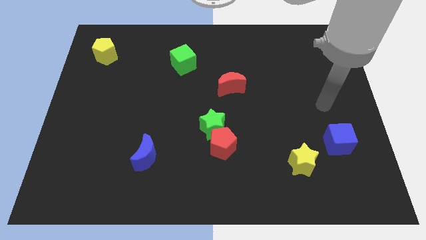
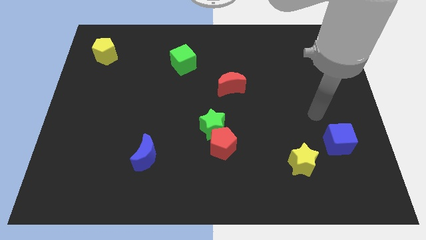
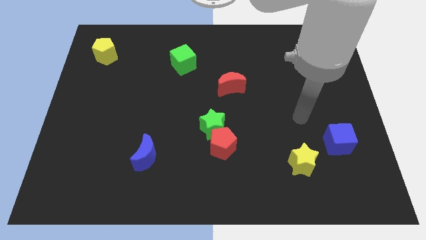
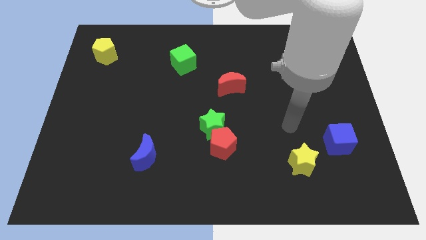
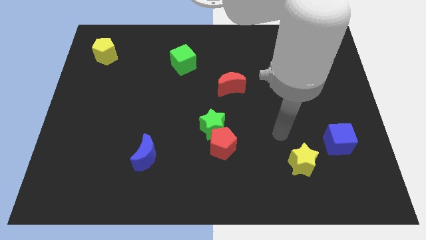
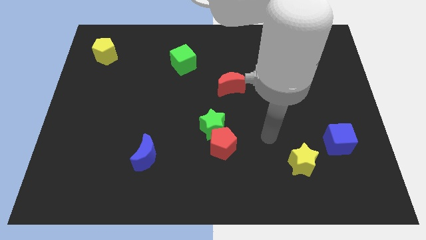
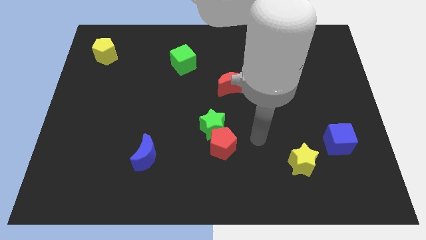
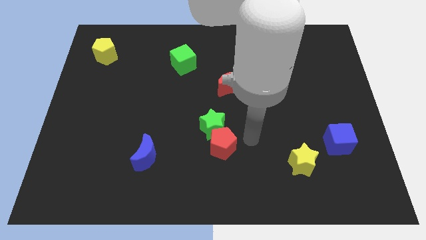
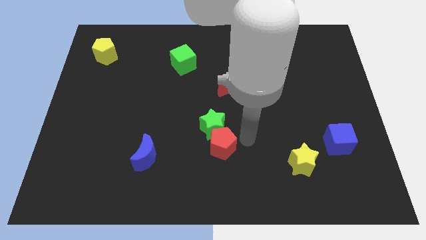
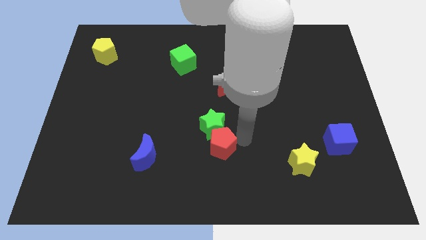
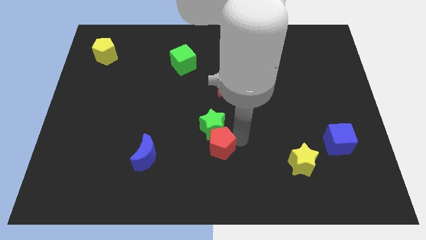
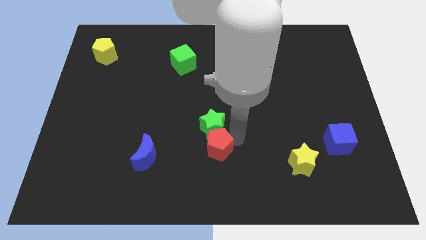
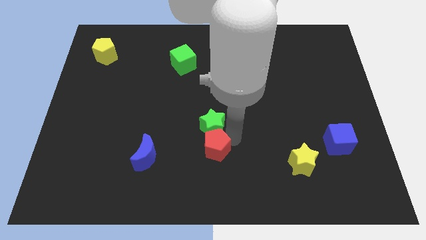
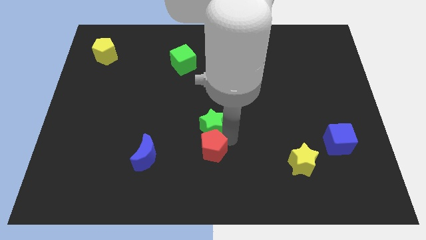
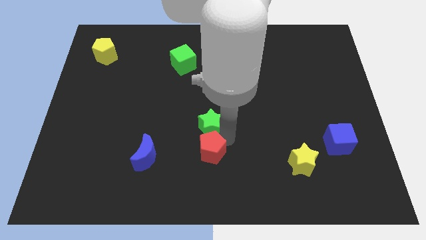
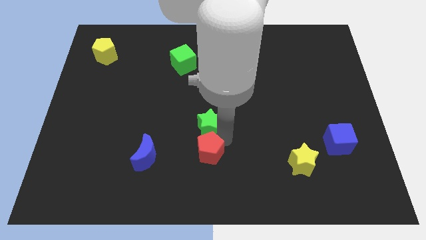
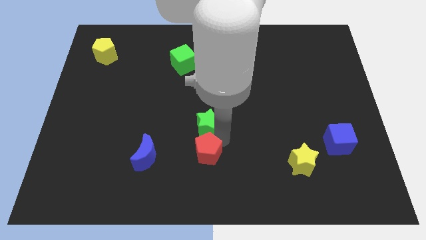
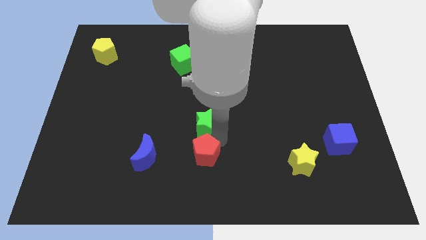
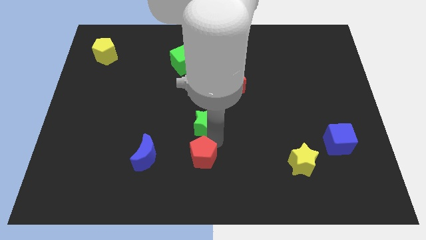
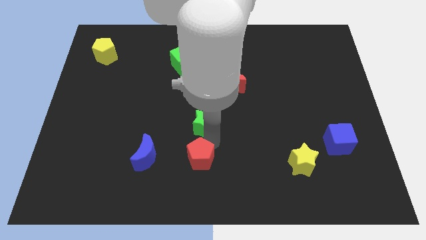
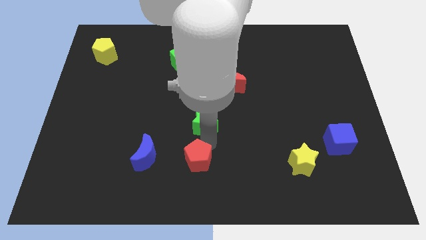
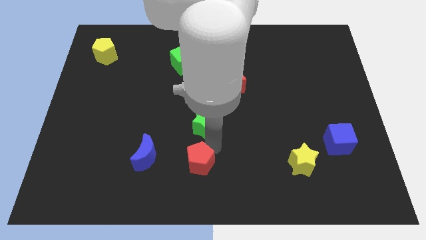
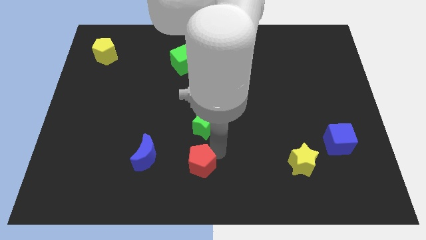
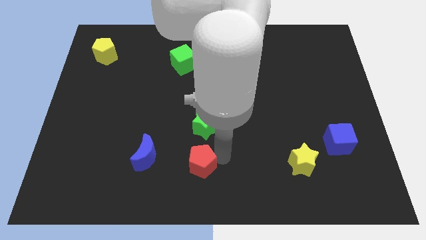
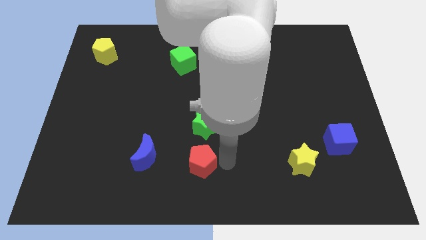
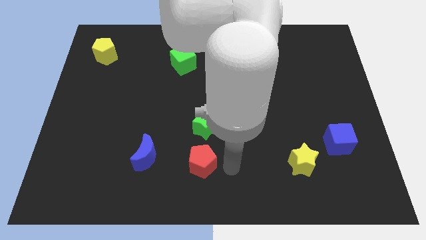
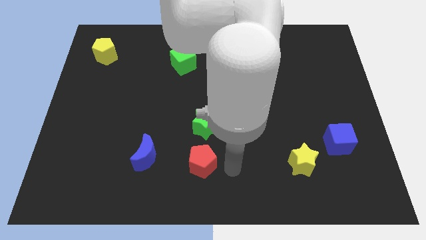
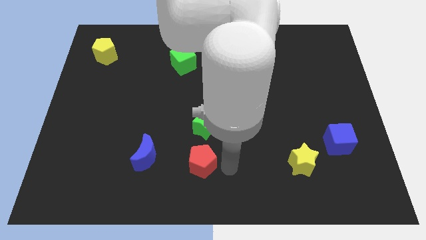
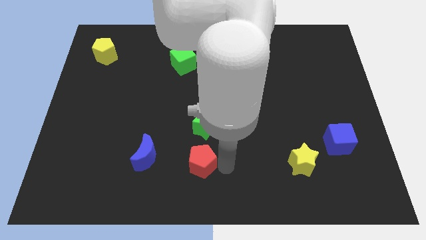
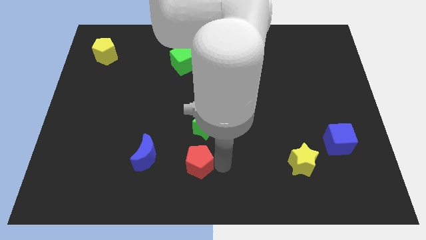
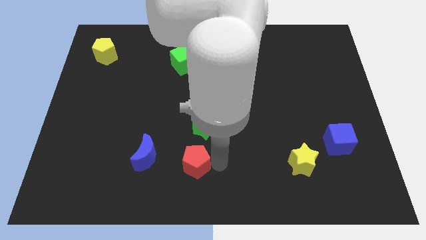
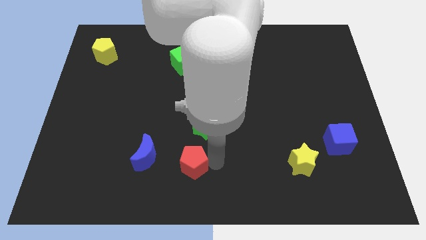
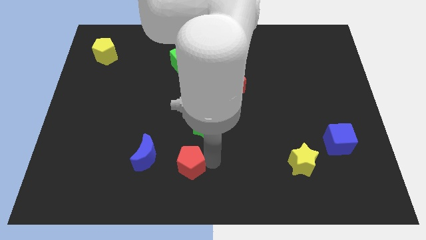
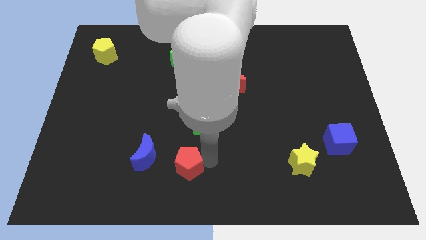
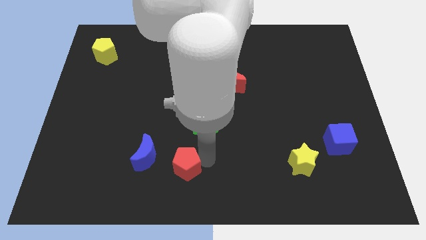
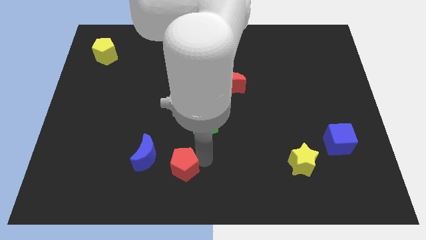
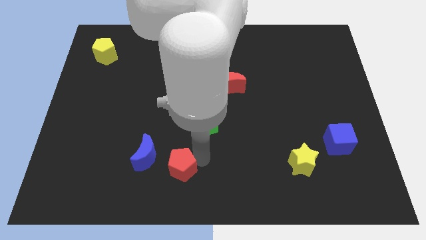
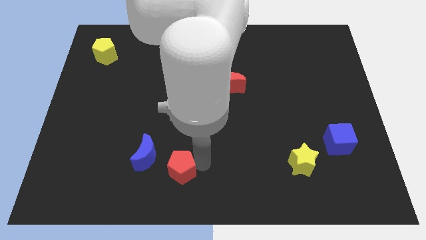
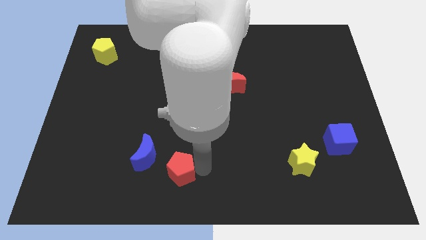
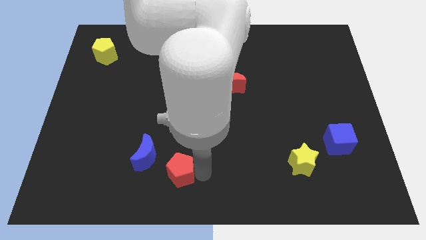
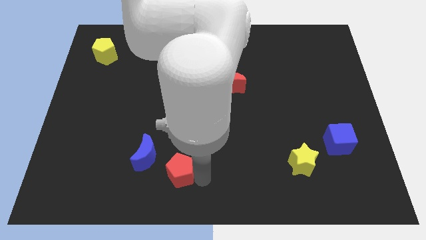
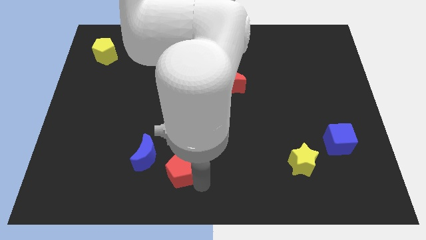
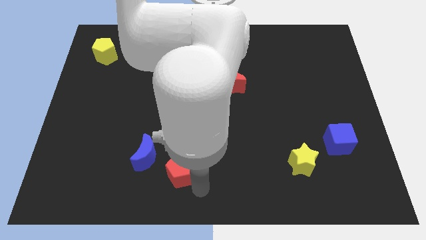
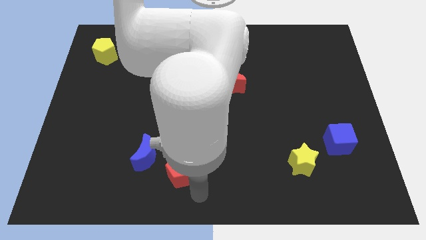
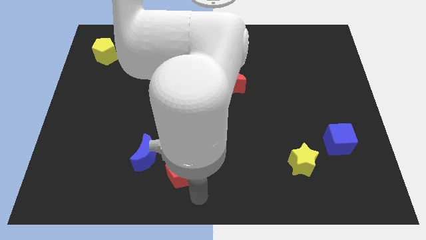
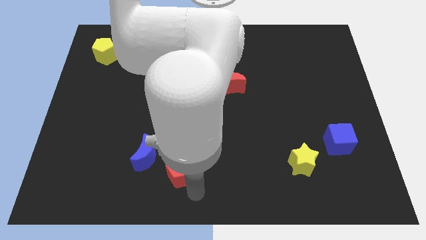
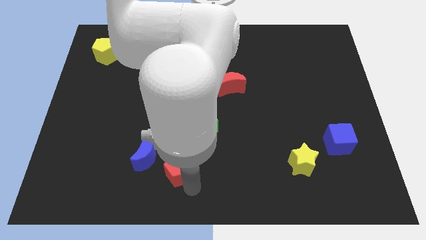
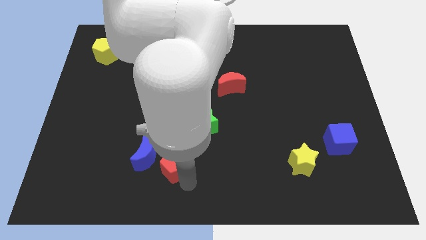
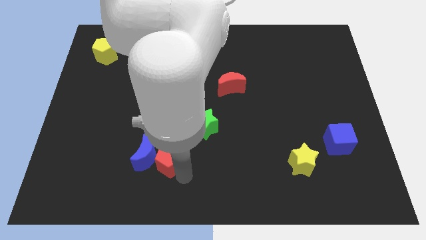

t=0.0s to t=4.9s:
slide the red pentagon next to the blue moon

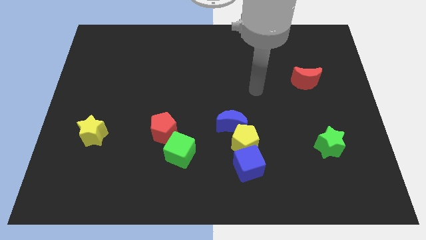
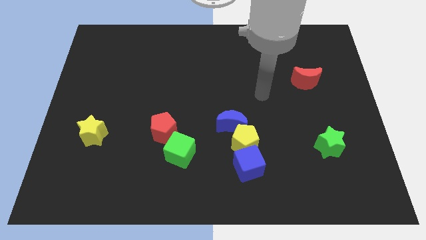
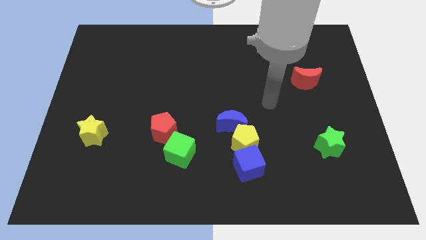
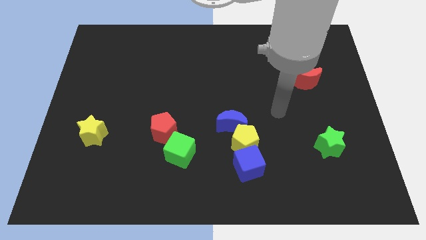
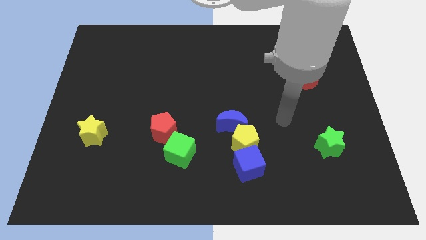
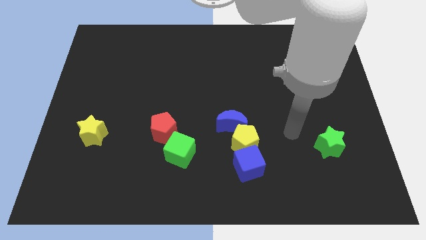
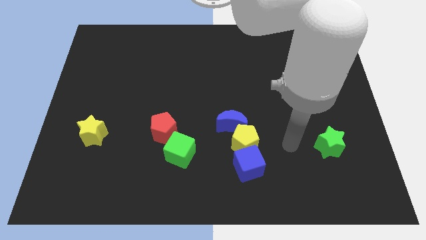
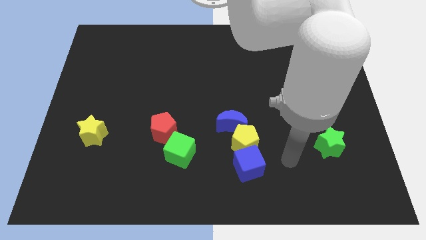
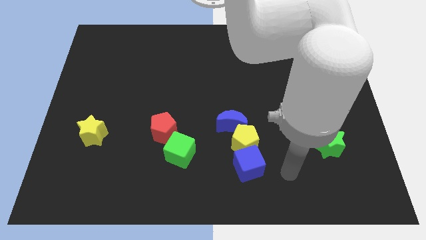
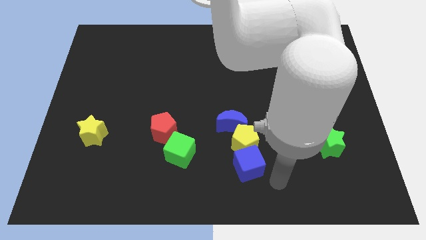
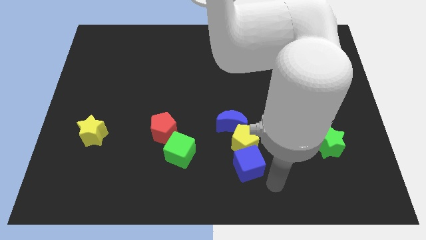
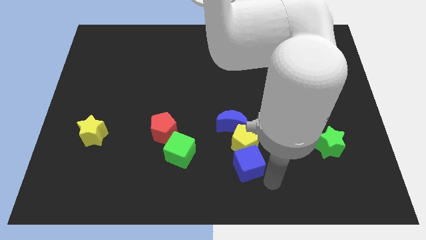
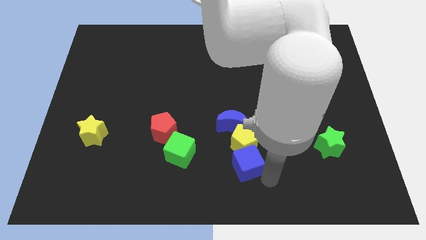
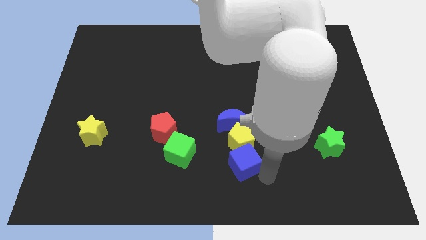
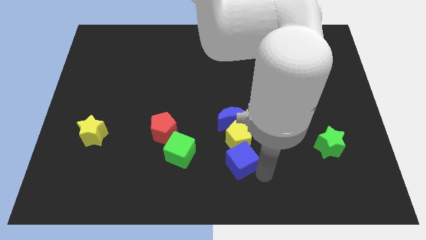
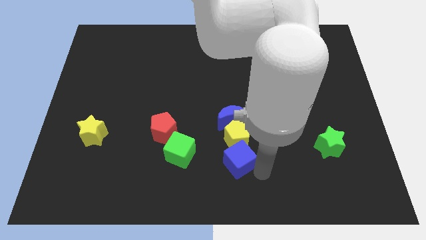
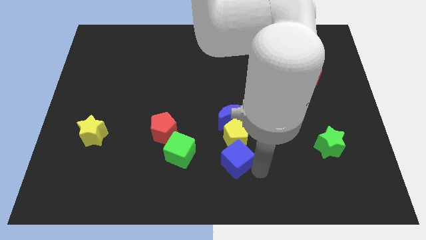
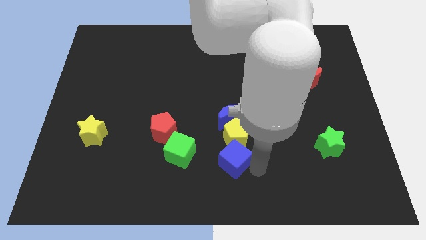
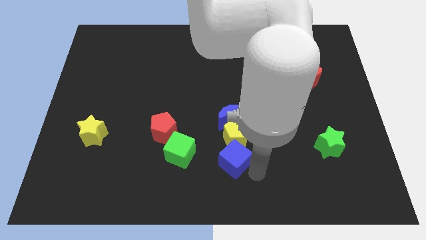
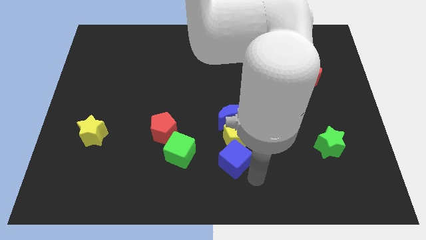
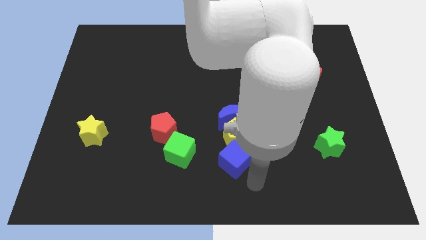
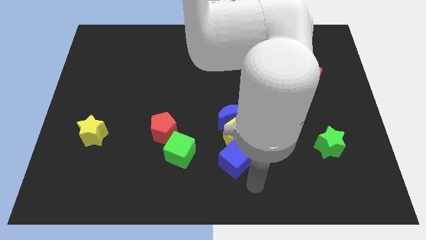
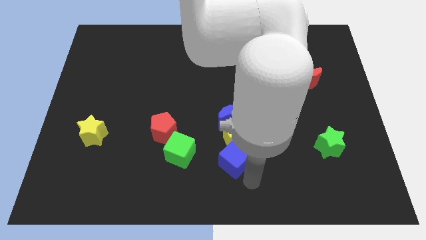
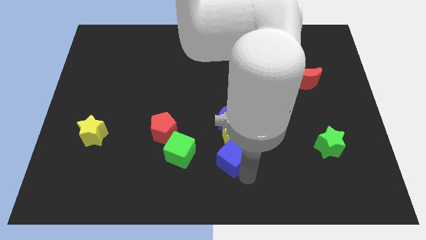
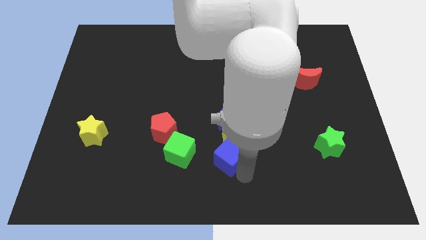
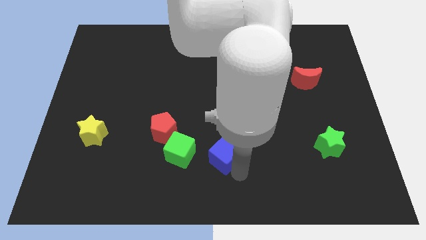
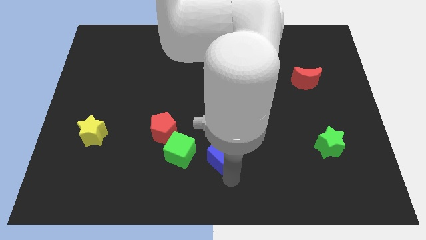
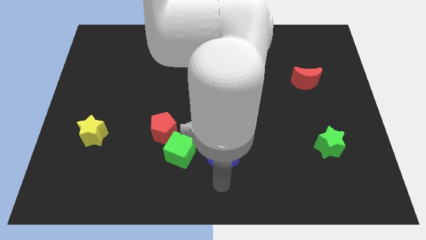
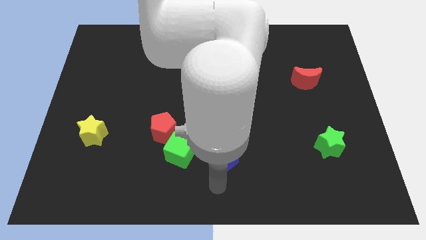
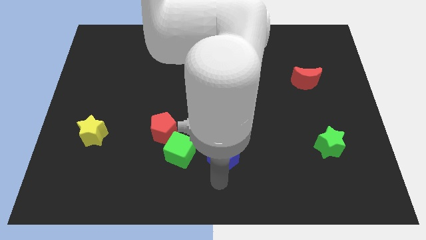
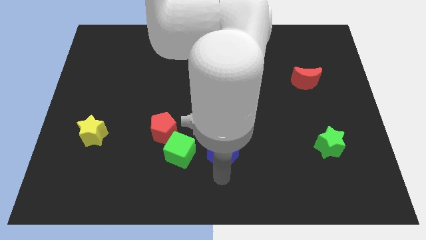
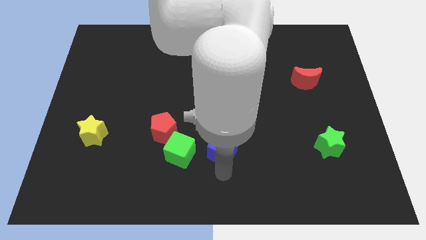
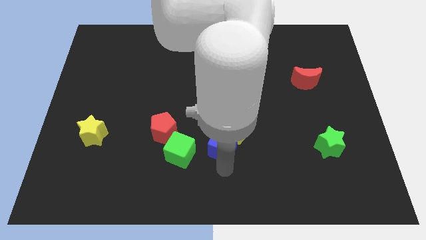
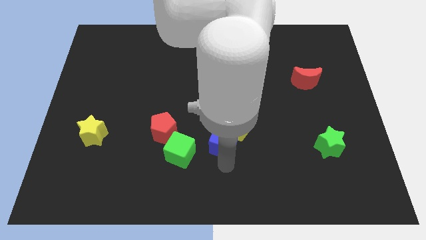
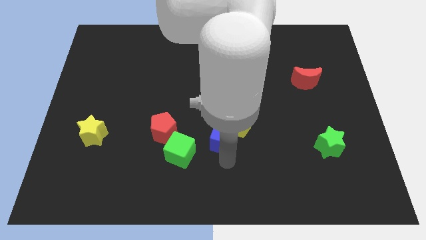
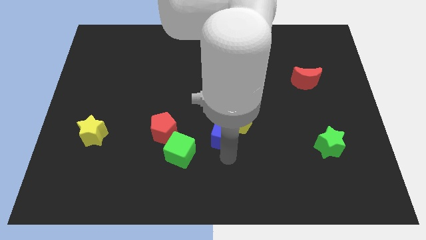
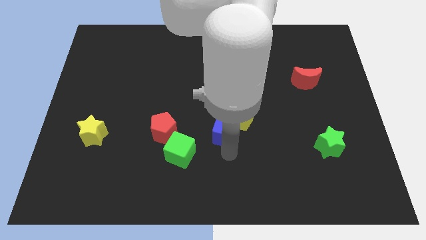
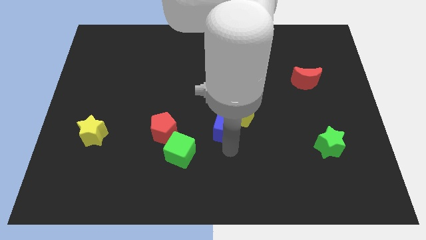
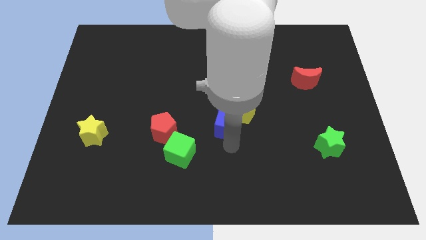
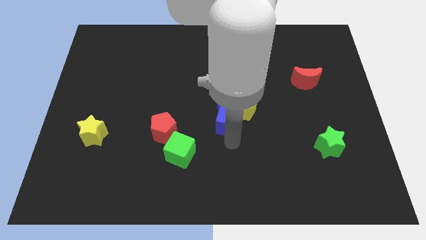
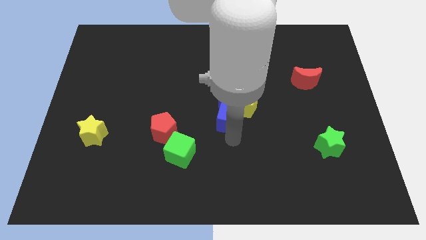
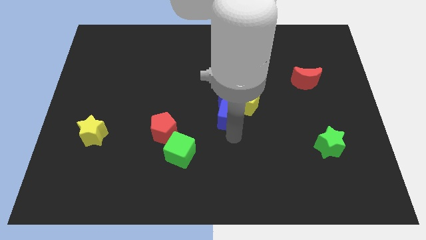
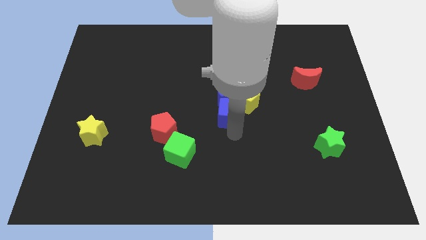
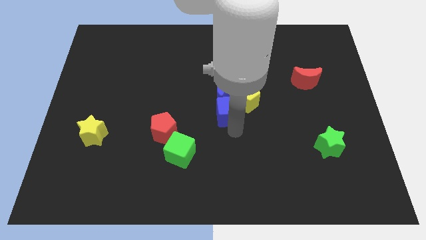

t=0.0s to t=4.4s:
move the blue cube towards the blue moon
